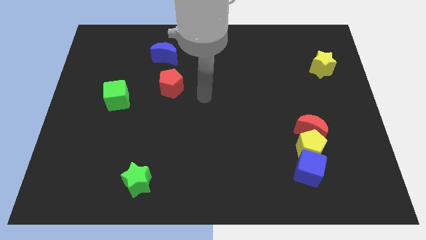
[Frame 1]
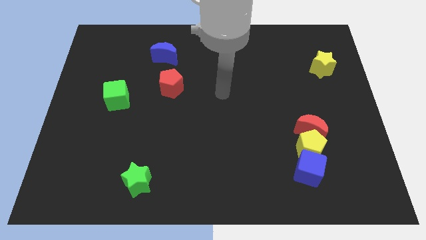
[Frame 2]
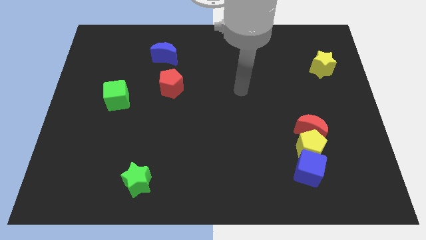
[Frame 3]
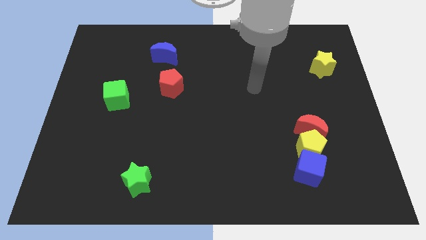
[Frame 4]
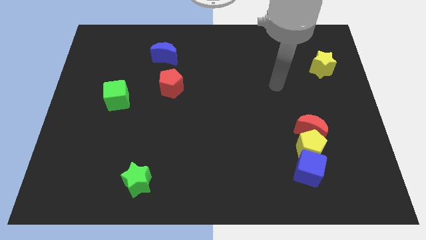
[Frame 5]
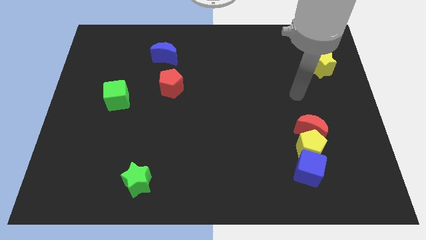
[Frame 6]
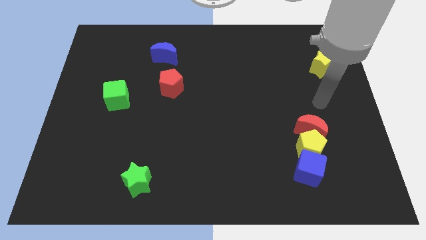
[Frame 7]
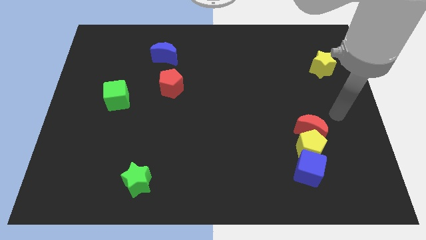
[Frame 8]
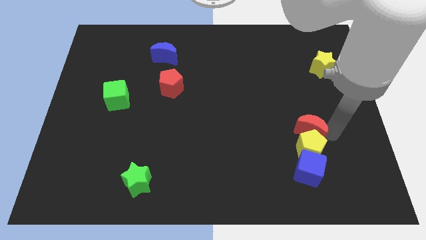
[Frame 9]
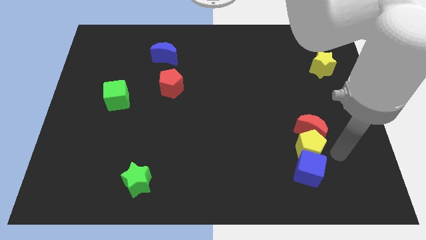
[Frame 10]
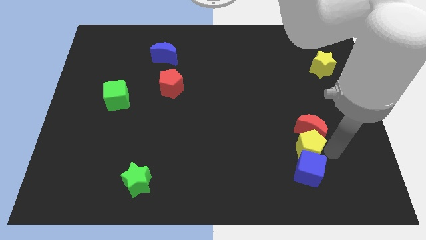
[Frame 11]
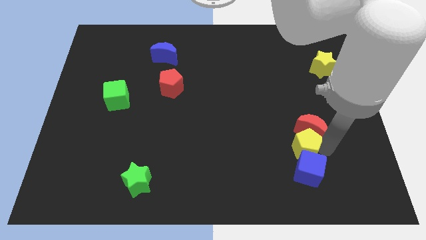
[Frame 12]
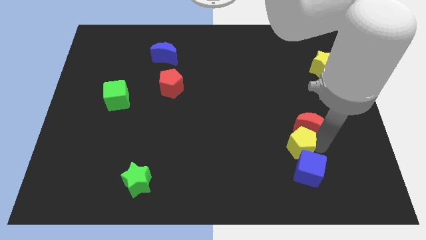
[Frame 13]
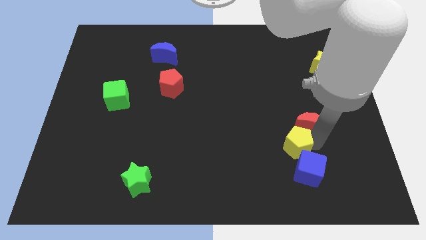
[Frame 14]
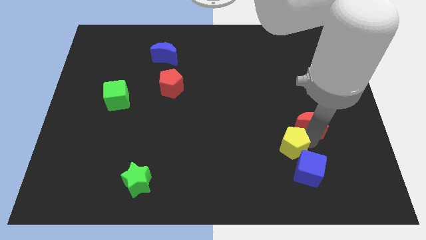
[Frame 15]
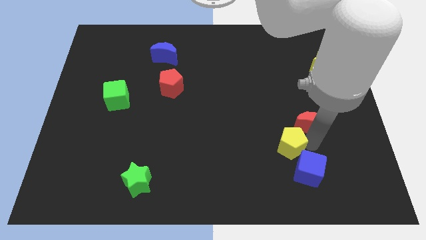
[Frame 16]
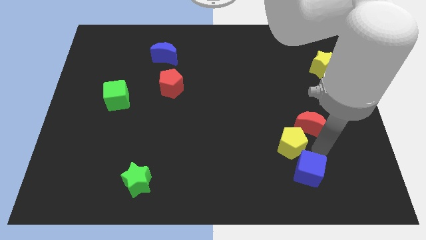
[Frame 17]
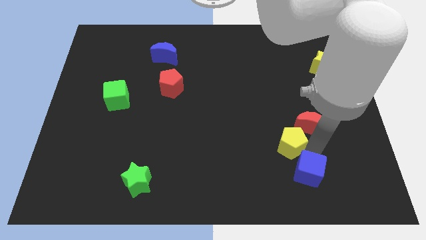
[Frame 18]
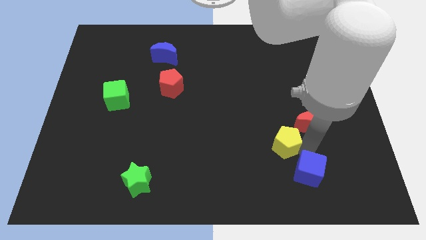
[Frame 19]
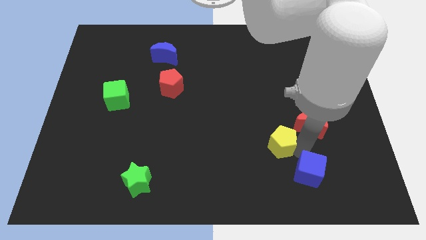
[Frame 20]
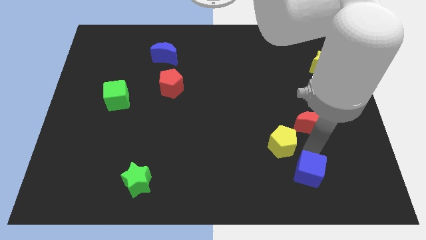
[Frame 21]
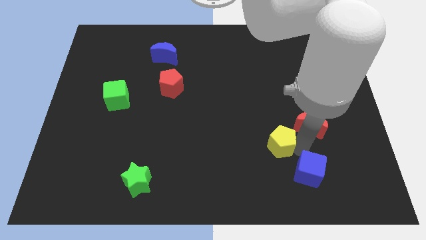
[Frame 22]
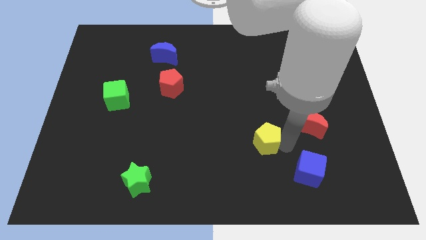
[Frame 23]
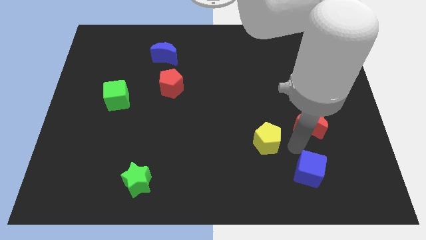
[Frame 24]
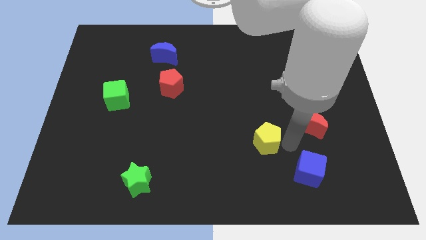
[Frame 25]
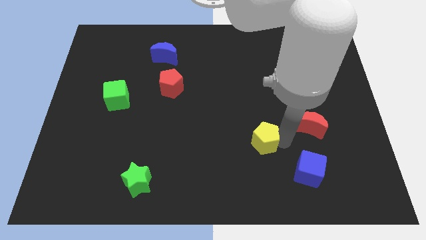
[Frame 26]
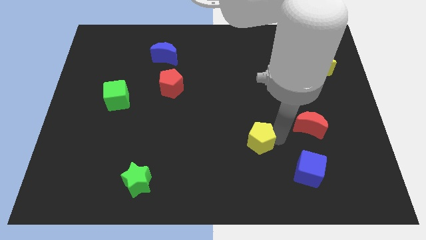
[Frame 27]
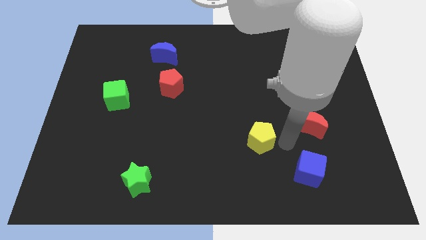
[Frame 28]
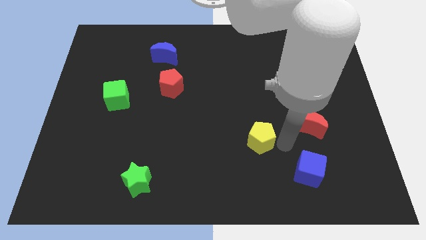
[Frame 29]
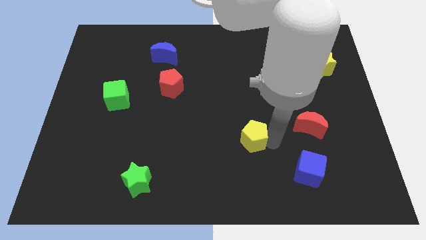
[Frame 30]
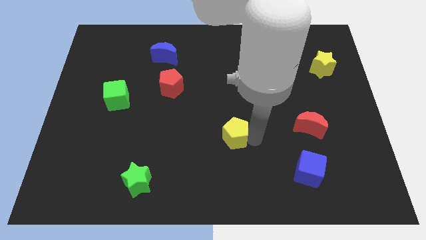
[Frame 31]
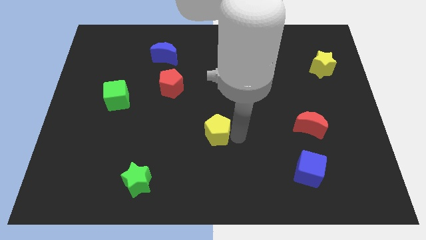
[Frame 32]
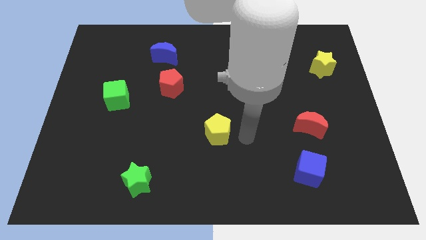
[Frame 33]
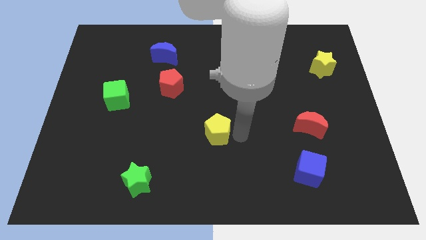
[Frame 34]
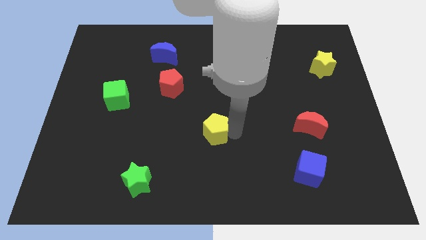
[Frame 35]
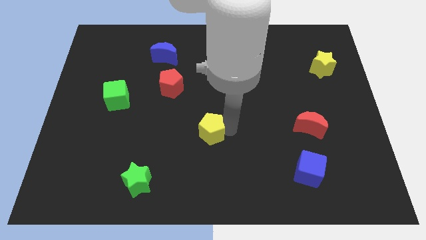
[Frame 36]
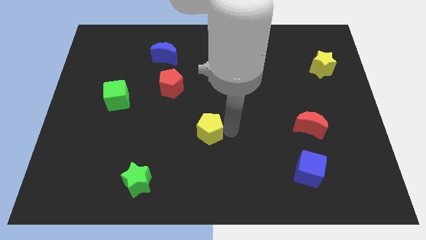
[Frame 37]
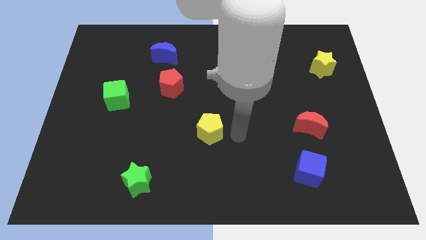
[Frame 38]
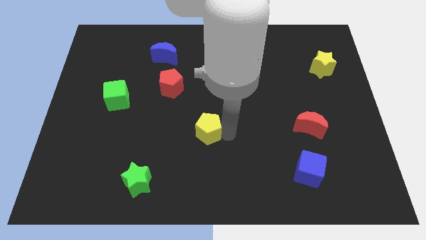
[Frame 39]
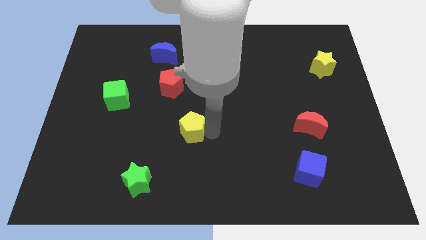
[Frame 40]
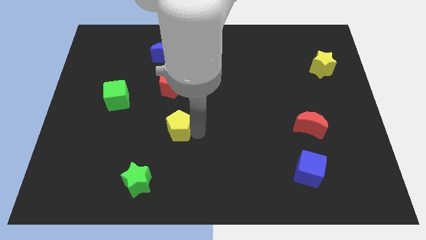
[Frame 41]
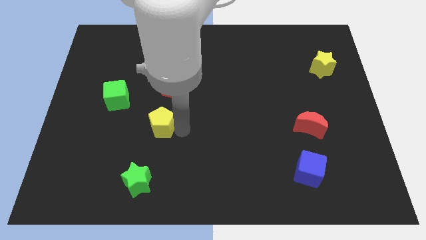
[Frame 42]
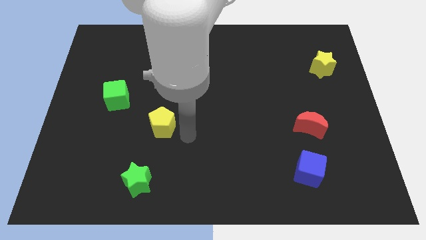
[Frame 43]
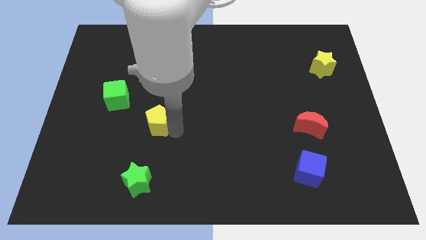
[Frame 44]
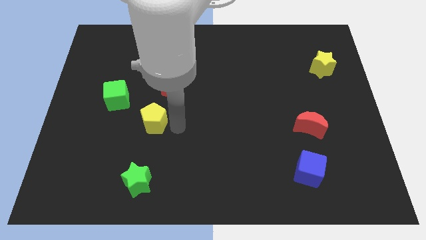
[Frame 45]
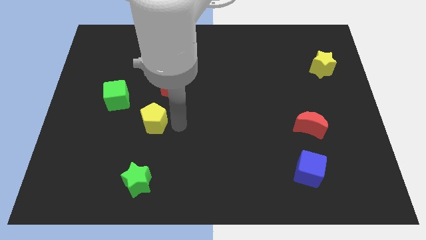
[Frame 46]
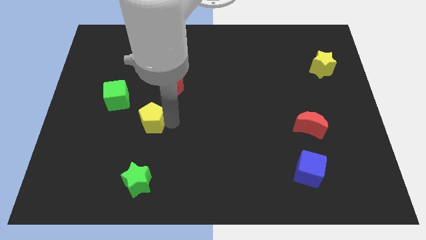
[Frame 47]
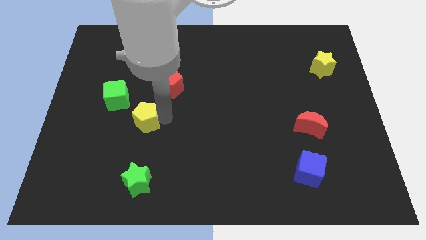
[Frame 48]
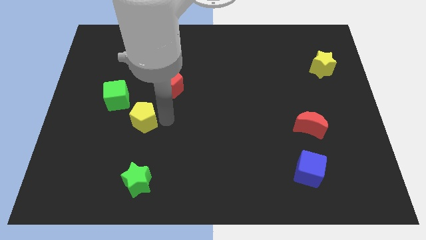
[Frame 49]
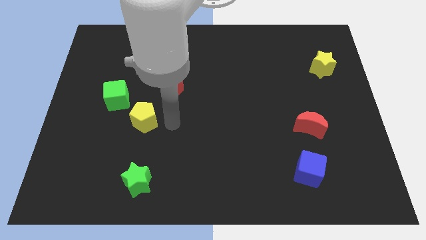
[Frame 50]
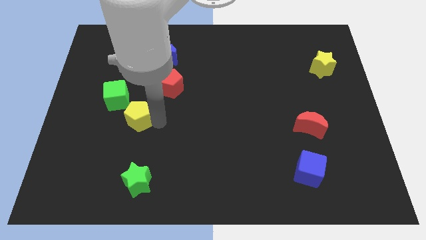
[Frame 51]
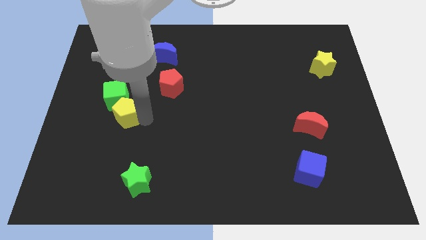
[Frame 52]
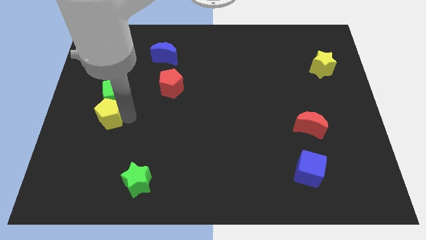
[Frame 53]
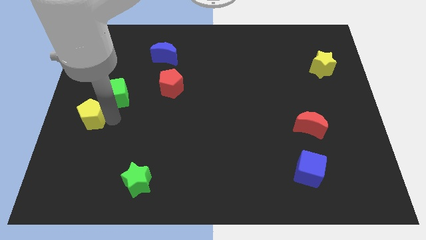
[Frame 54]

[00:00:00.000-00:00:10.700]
put the yellow pentagon to the center left

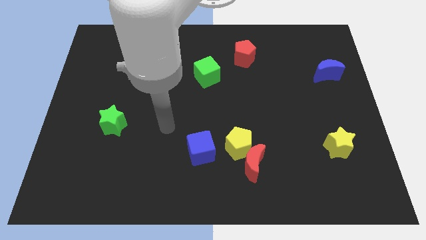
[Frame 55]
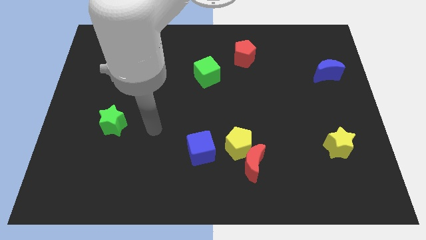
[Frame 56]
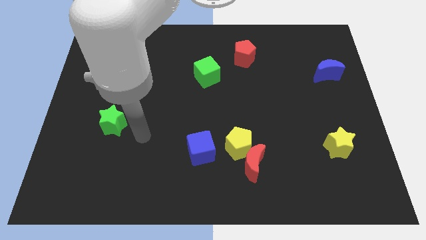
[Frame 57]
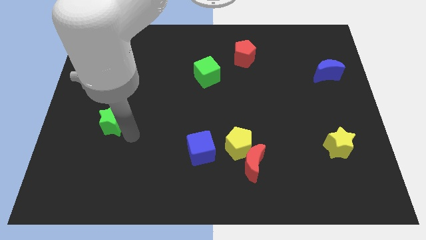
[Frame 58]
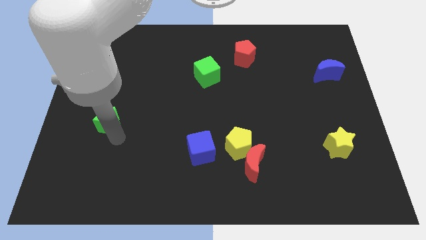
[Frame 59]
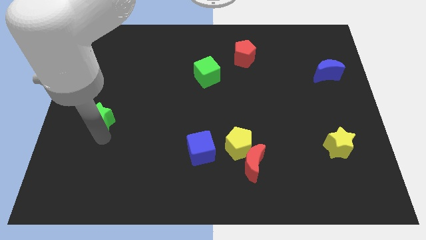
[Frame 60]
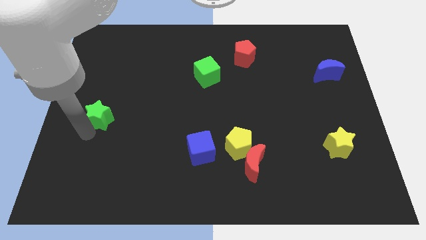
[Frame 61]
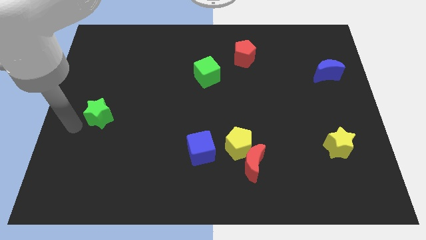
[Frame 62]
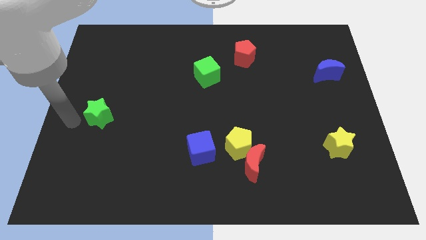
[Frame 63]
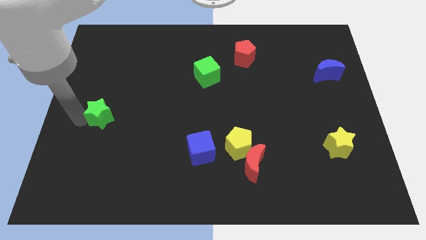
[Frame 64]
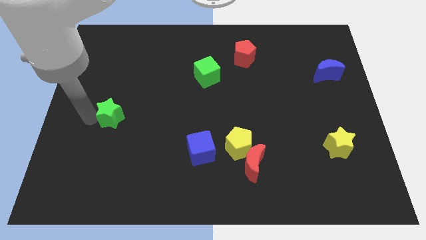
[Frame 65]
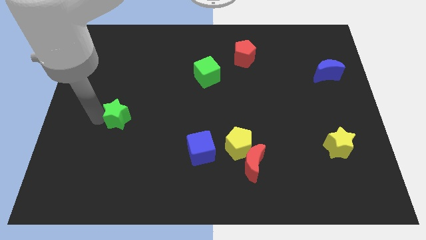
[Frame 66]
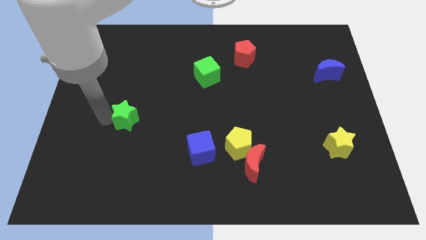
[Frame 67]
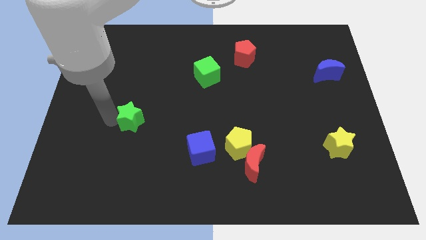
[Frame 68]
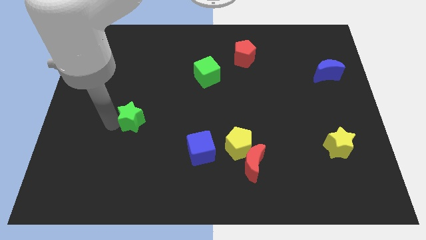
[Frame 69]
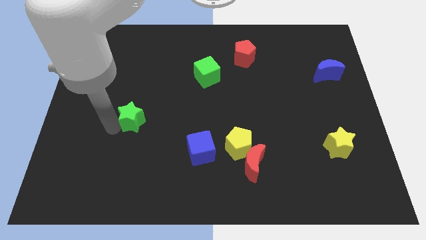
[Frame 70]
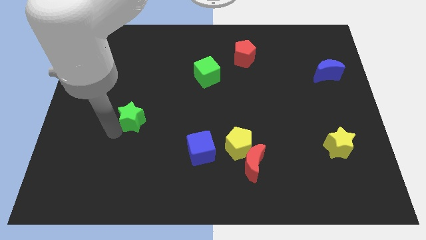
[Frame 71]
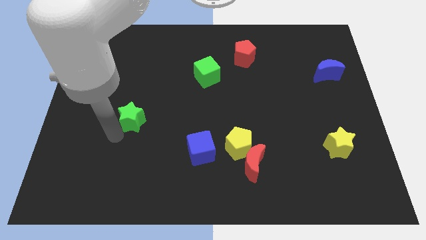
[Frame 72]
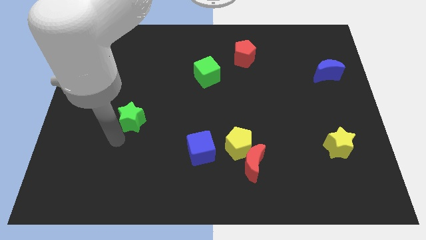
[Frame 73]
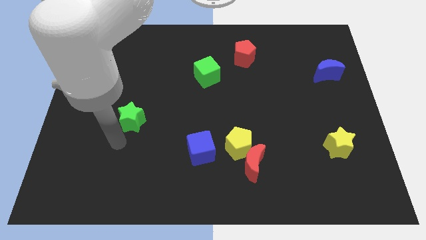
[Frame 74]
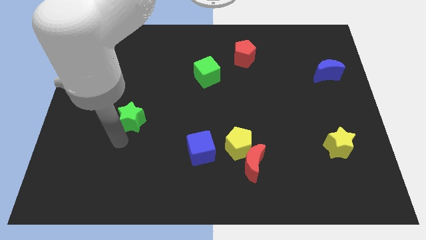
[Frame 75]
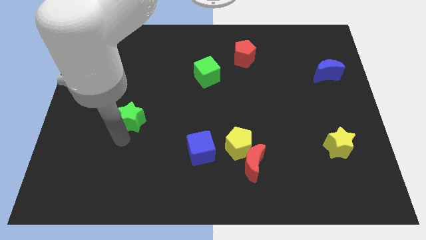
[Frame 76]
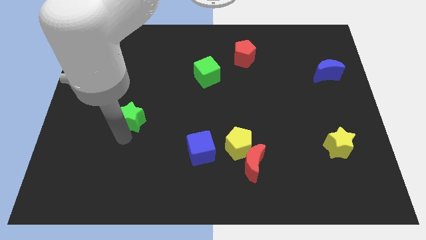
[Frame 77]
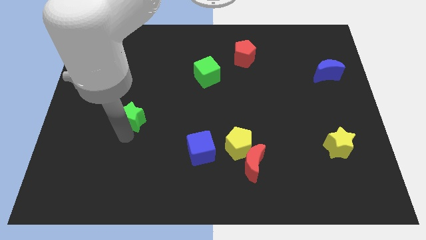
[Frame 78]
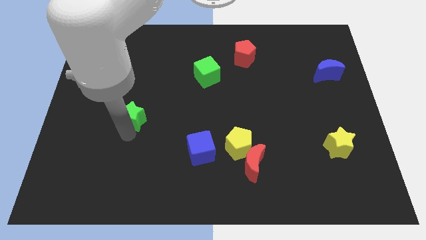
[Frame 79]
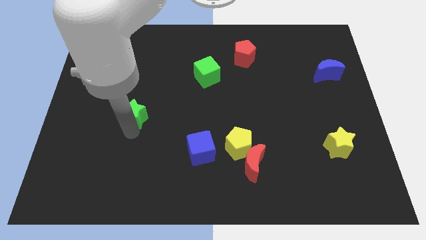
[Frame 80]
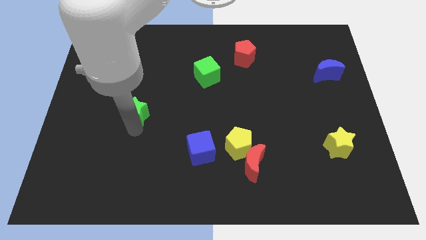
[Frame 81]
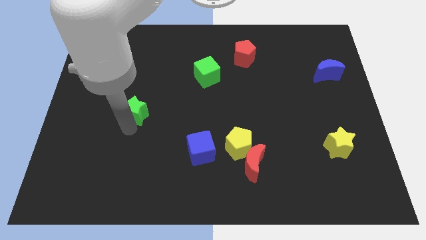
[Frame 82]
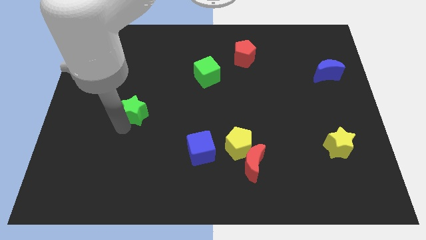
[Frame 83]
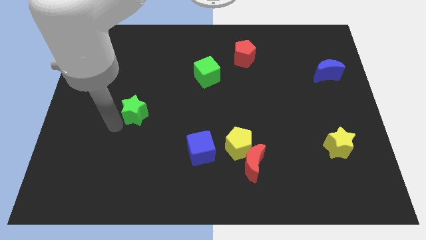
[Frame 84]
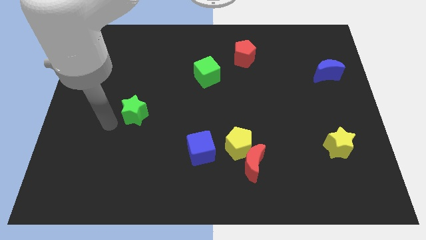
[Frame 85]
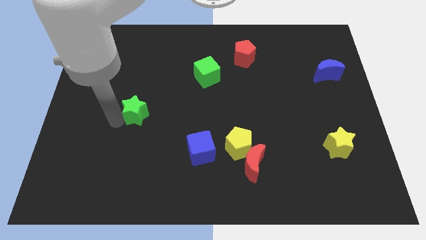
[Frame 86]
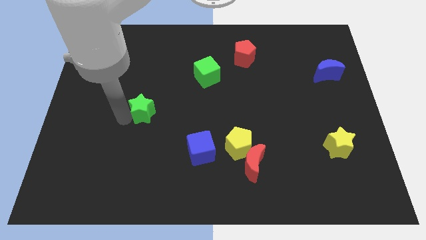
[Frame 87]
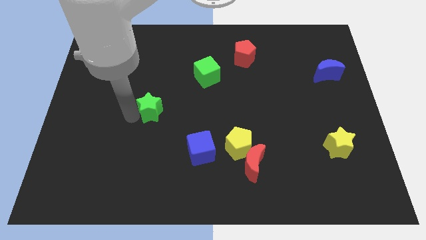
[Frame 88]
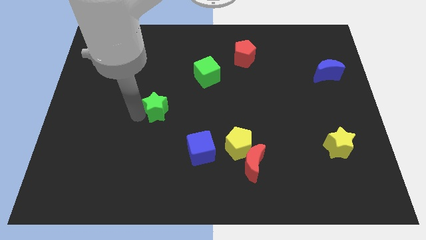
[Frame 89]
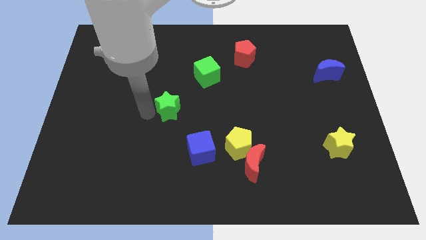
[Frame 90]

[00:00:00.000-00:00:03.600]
put the green star to the middle of the board
